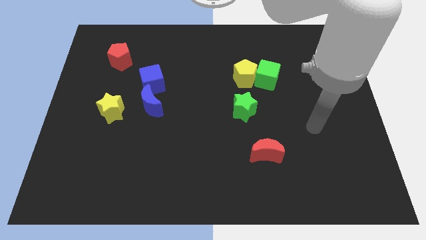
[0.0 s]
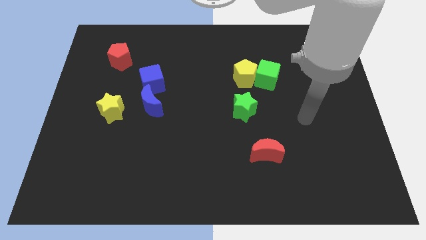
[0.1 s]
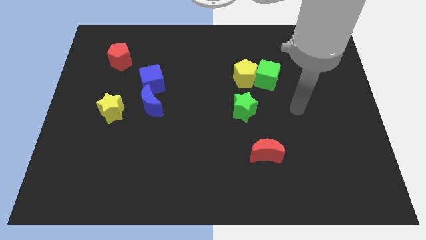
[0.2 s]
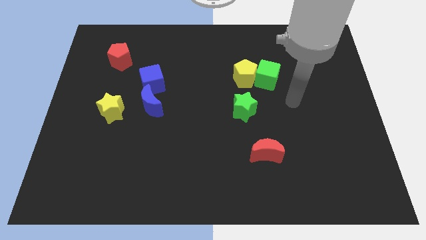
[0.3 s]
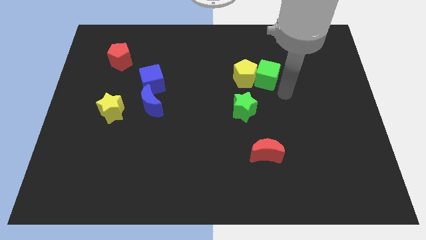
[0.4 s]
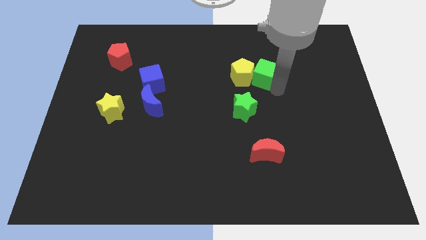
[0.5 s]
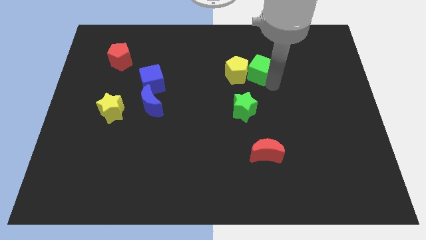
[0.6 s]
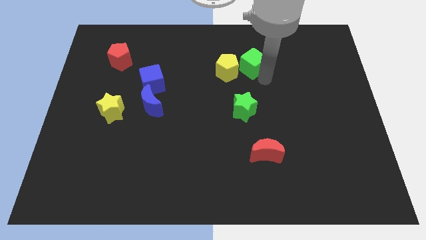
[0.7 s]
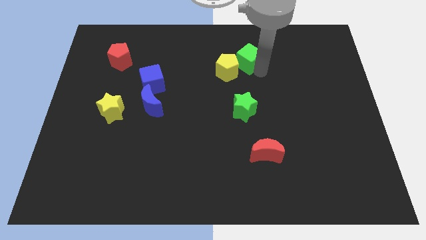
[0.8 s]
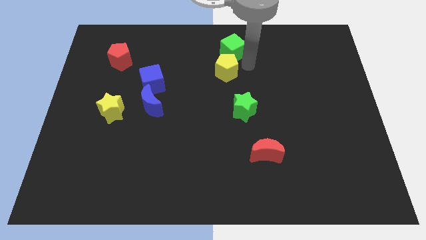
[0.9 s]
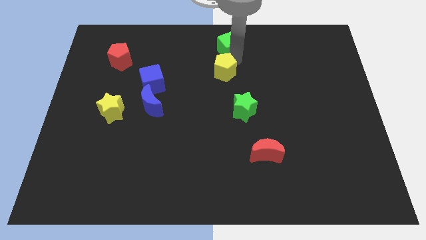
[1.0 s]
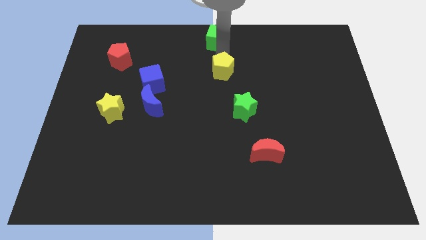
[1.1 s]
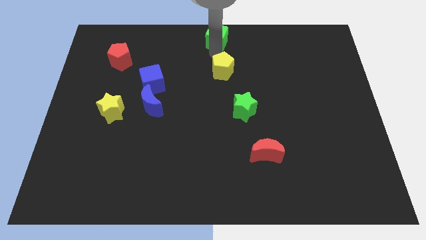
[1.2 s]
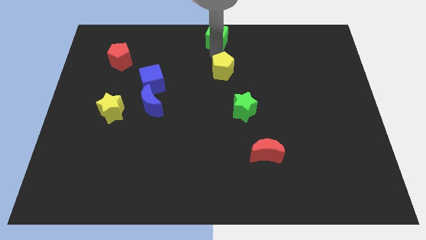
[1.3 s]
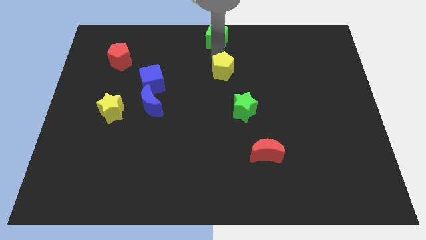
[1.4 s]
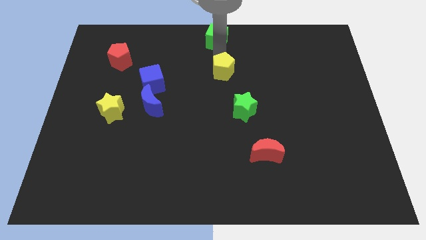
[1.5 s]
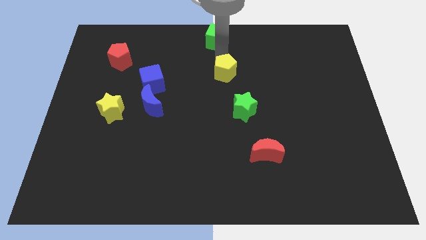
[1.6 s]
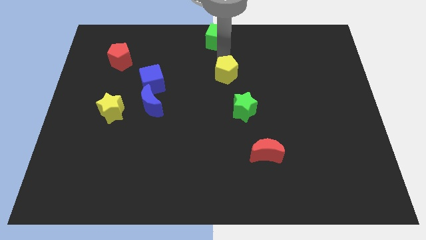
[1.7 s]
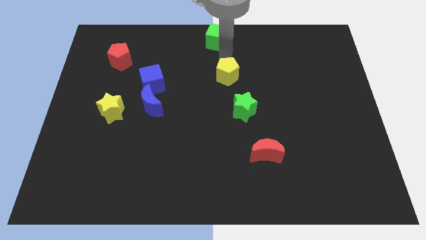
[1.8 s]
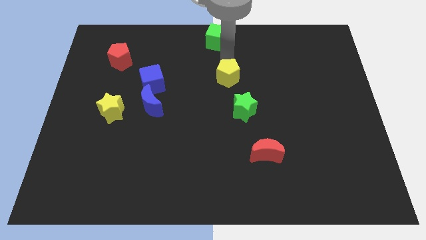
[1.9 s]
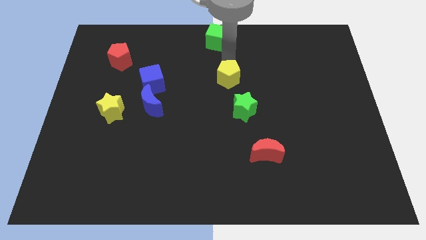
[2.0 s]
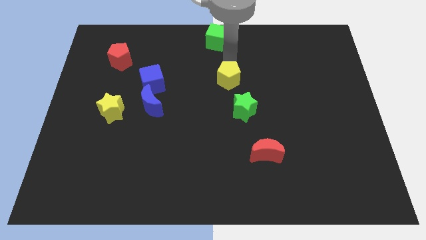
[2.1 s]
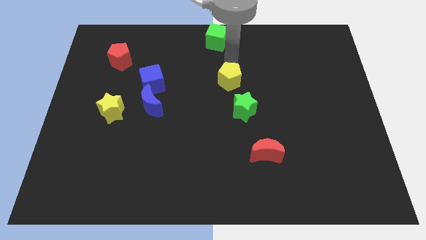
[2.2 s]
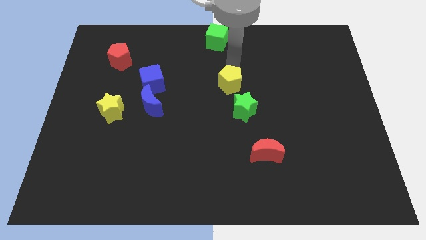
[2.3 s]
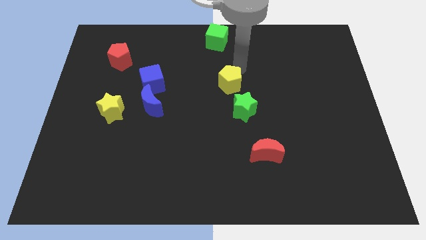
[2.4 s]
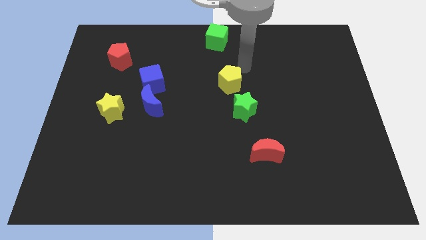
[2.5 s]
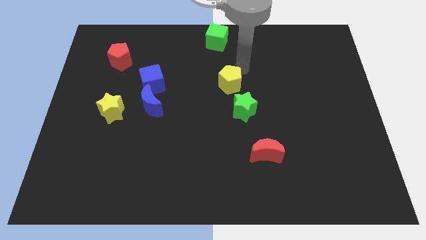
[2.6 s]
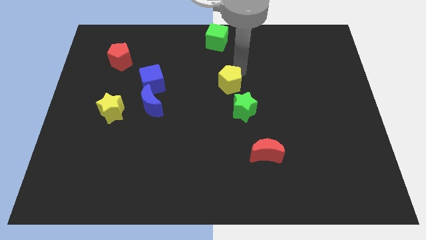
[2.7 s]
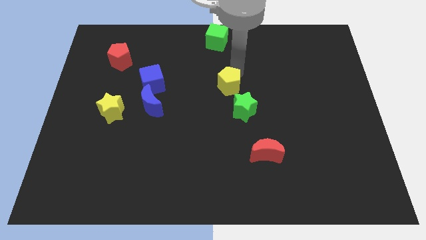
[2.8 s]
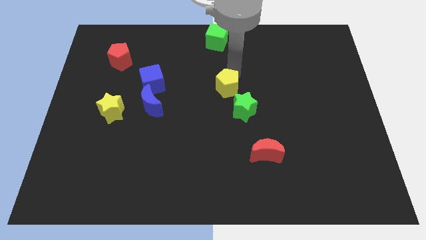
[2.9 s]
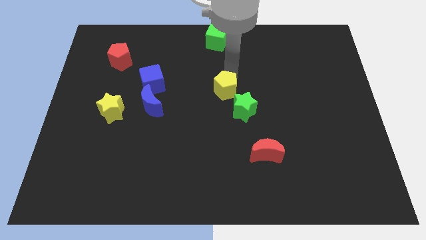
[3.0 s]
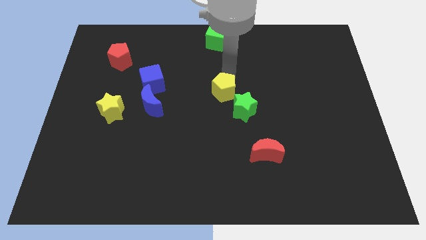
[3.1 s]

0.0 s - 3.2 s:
slide the yellow pentagon slightly down and left diagonally

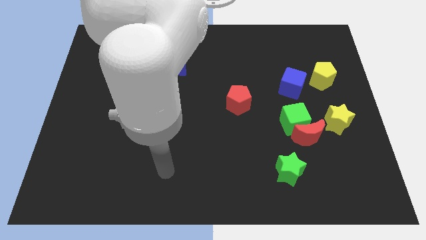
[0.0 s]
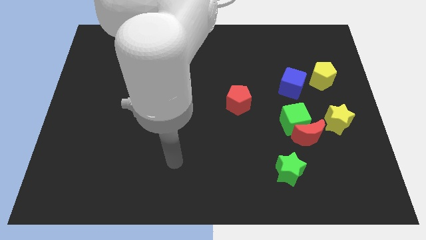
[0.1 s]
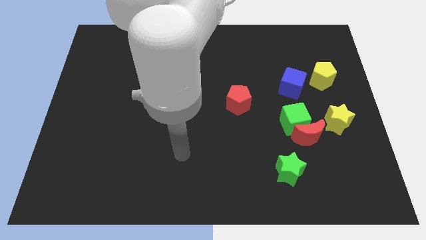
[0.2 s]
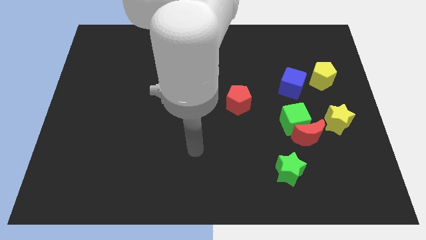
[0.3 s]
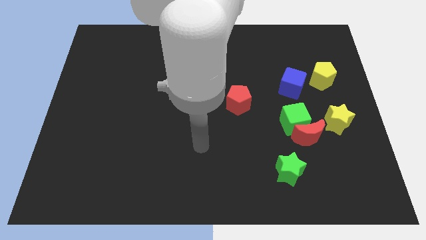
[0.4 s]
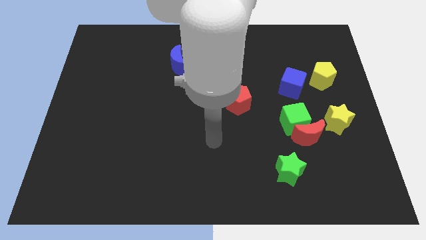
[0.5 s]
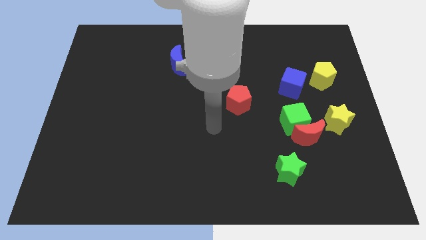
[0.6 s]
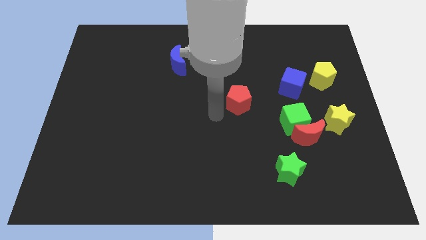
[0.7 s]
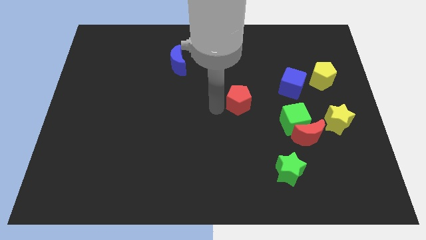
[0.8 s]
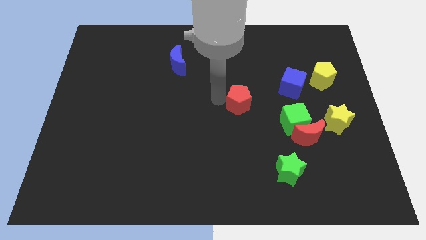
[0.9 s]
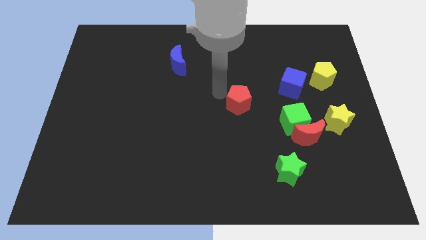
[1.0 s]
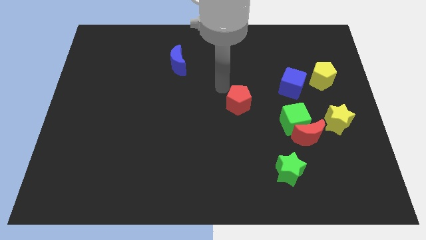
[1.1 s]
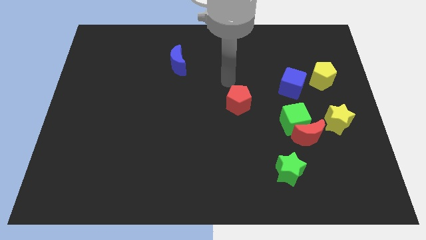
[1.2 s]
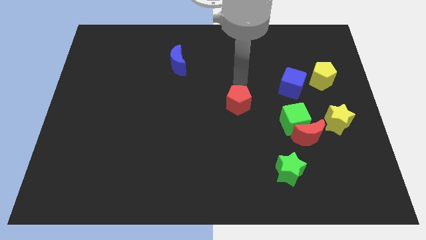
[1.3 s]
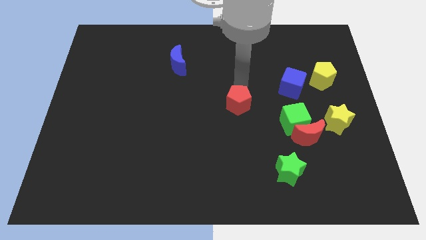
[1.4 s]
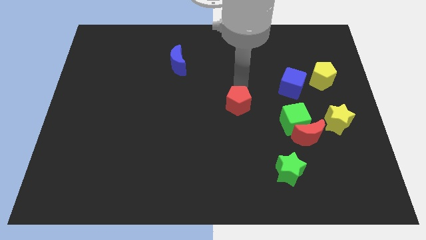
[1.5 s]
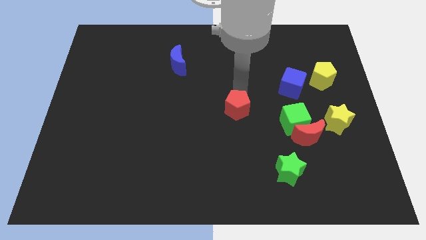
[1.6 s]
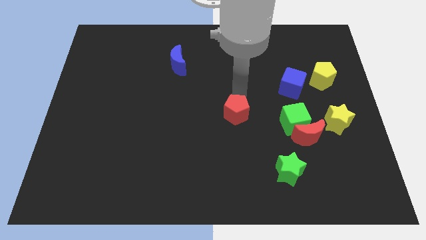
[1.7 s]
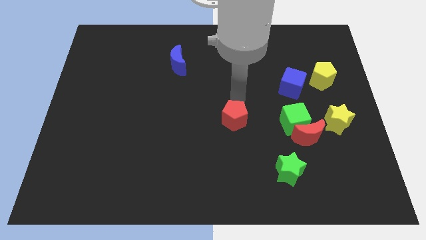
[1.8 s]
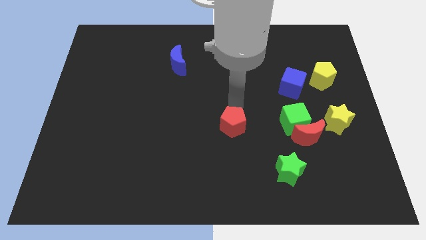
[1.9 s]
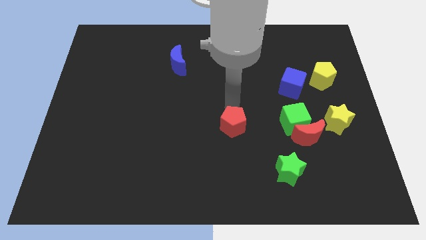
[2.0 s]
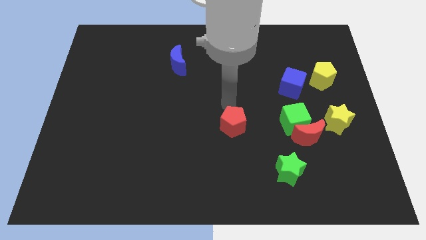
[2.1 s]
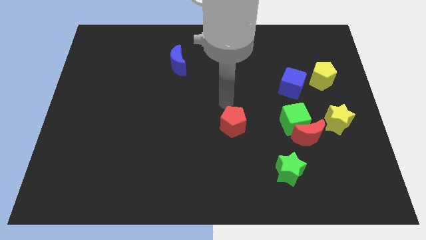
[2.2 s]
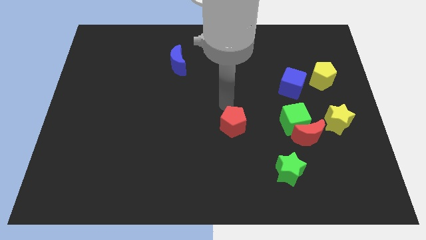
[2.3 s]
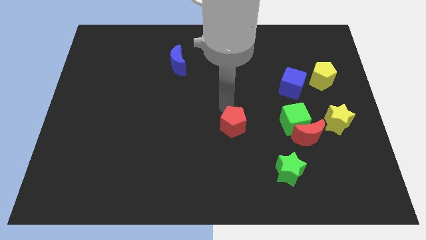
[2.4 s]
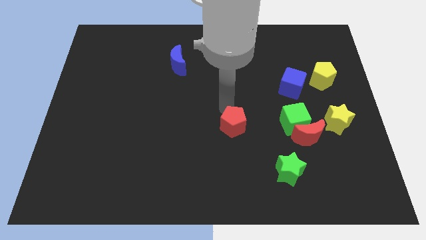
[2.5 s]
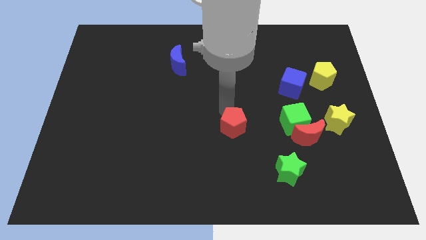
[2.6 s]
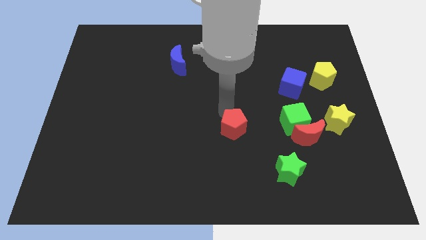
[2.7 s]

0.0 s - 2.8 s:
slightly slide the red pentagon downwards

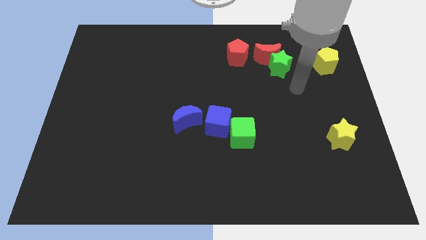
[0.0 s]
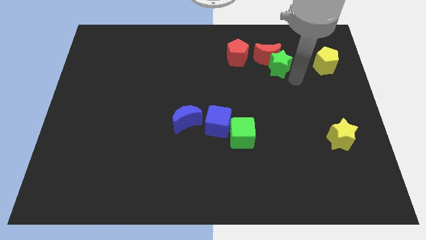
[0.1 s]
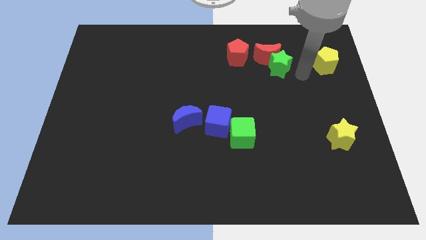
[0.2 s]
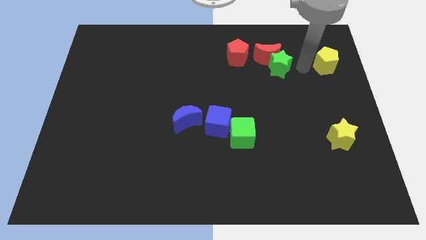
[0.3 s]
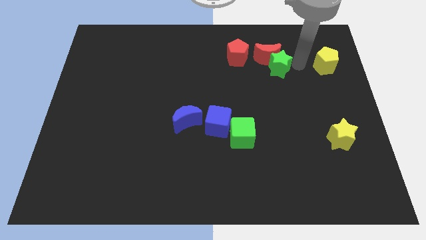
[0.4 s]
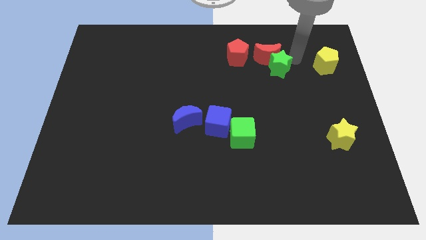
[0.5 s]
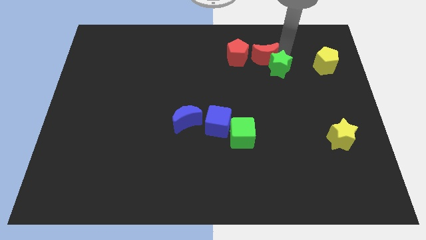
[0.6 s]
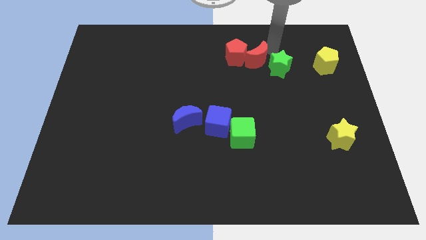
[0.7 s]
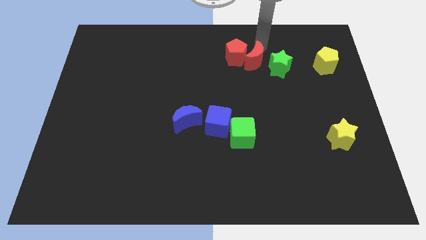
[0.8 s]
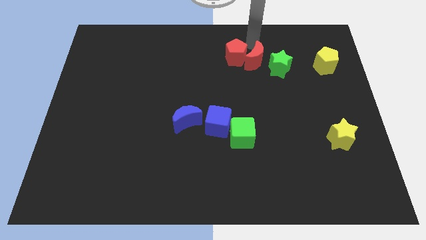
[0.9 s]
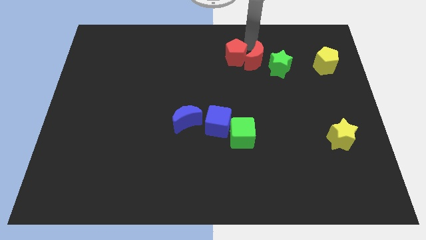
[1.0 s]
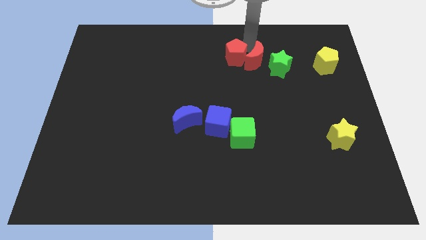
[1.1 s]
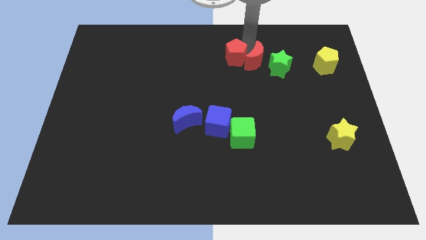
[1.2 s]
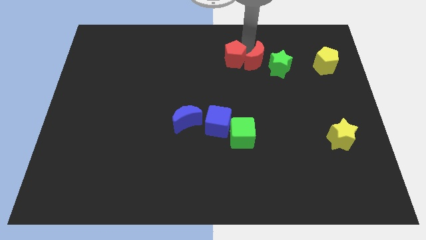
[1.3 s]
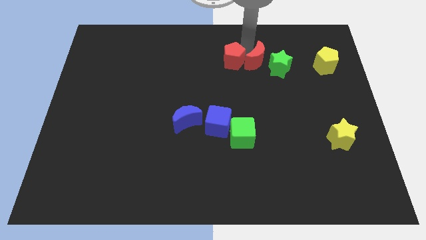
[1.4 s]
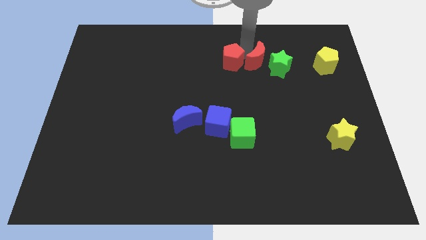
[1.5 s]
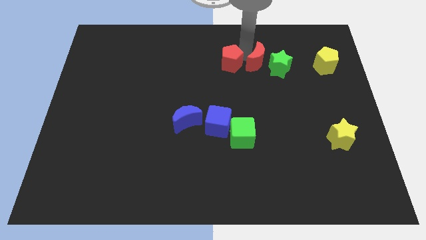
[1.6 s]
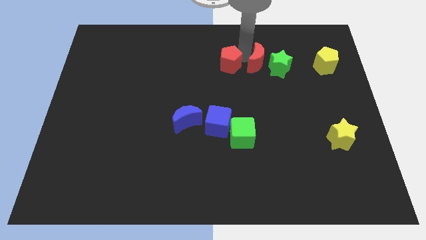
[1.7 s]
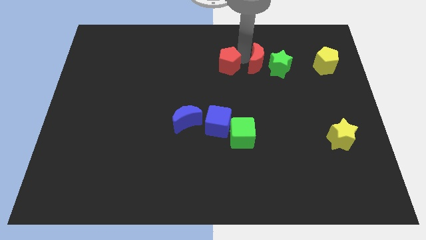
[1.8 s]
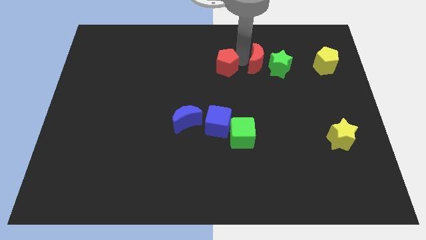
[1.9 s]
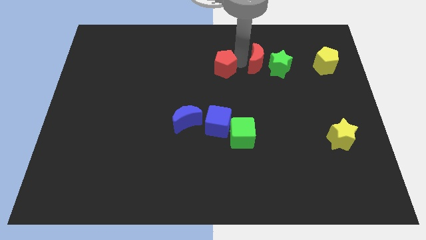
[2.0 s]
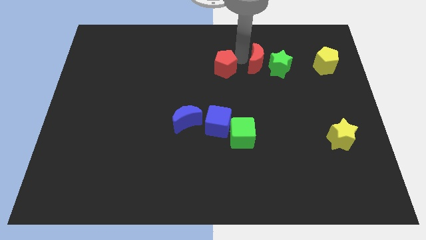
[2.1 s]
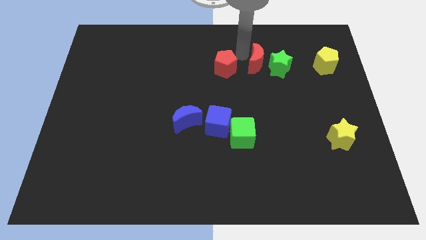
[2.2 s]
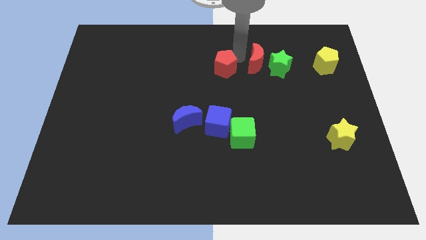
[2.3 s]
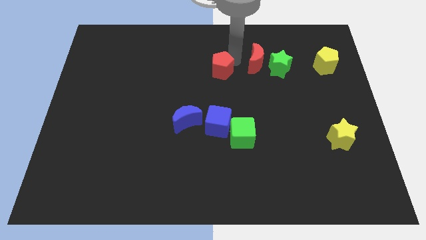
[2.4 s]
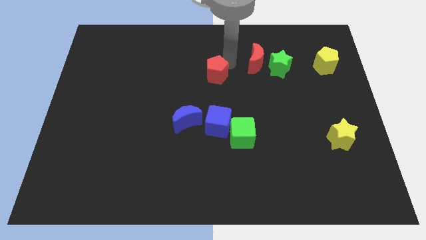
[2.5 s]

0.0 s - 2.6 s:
move the red pentagon a little down and to the left diagonally
